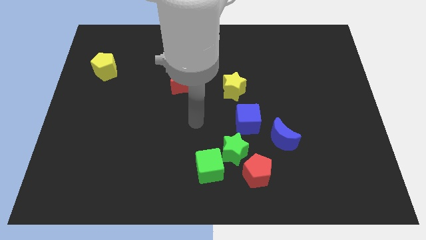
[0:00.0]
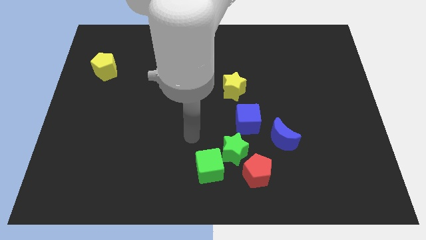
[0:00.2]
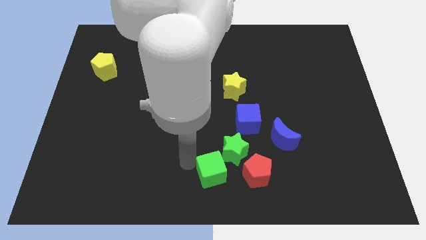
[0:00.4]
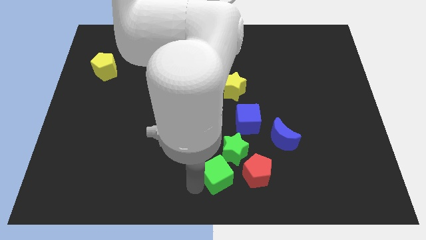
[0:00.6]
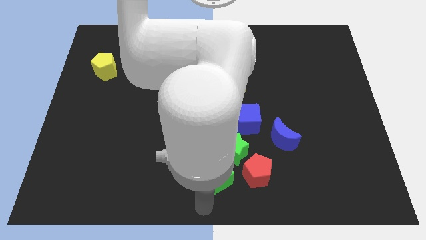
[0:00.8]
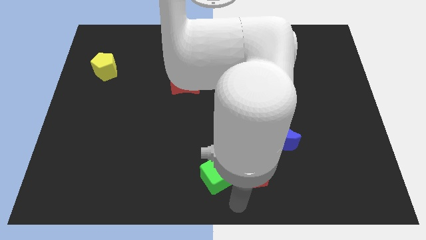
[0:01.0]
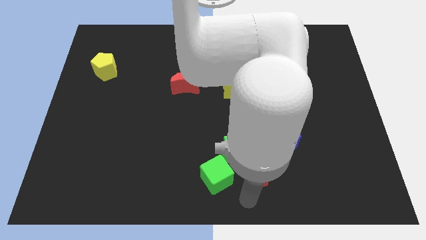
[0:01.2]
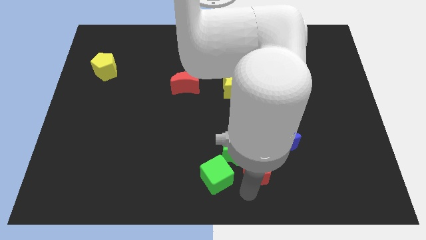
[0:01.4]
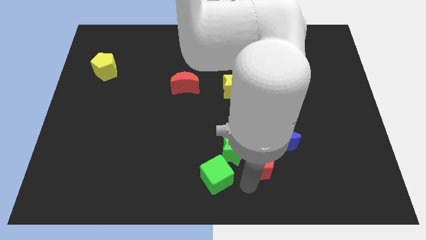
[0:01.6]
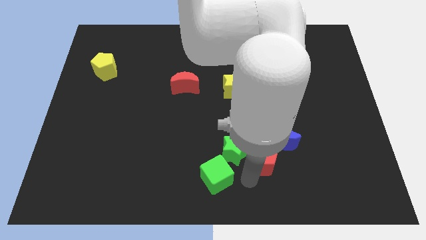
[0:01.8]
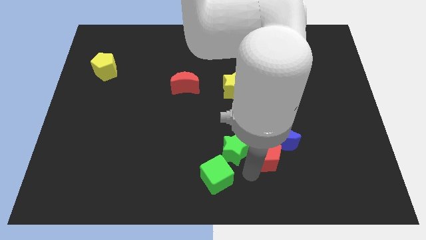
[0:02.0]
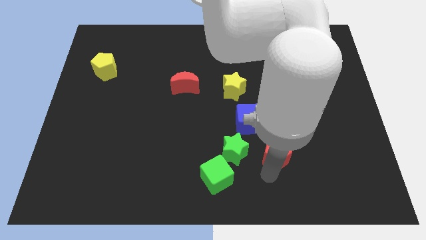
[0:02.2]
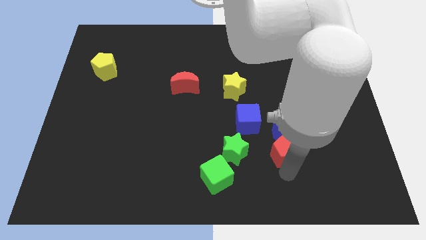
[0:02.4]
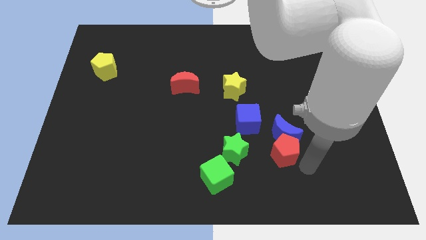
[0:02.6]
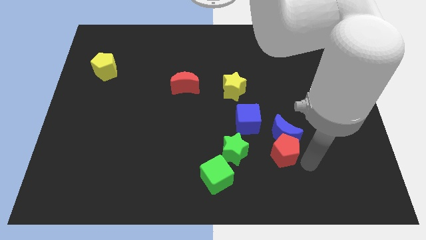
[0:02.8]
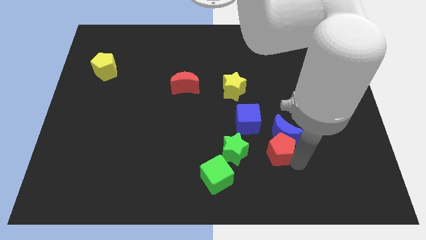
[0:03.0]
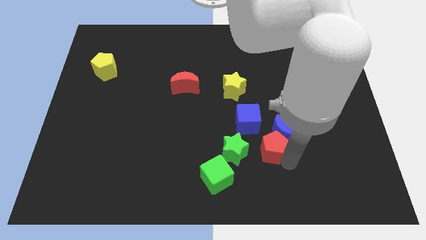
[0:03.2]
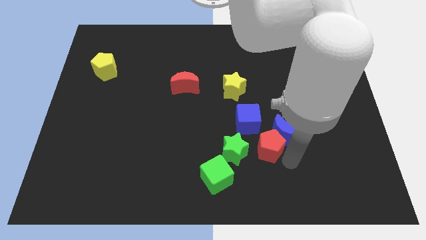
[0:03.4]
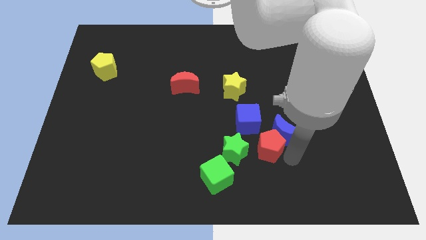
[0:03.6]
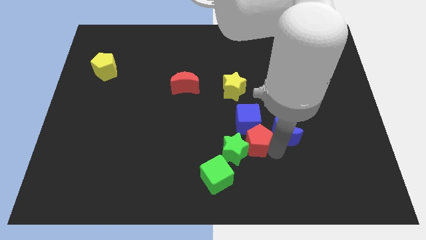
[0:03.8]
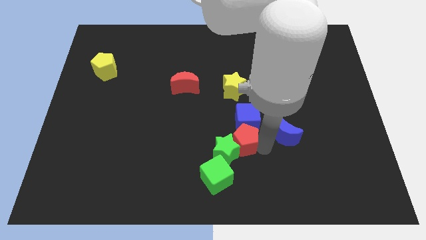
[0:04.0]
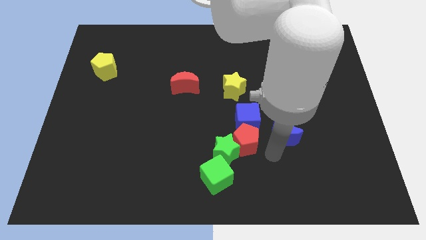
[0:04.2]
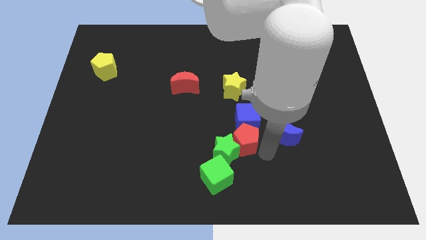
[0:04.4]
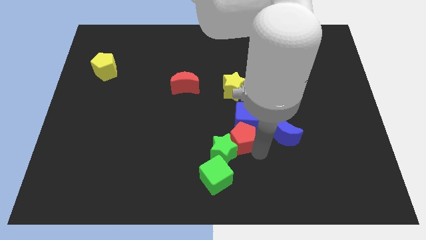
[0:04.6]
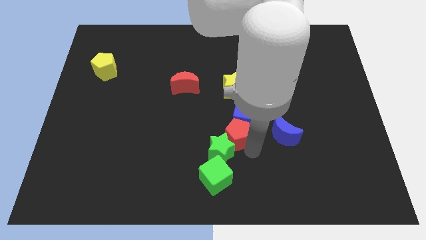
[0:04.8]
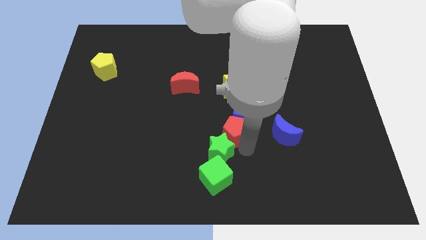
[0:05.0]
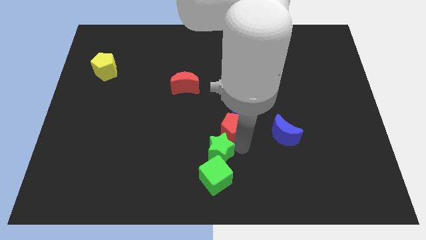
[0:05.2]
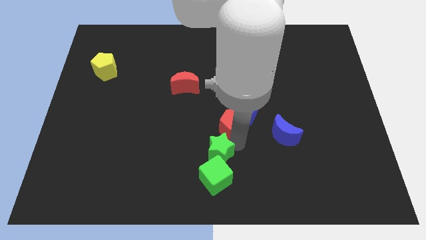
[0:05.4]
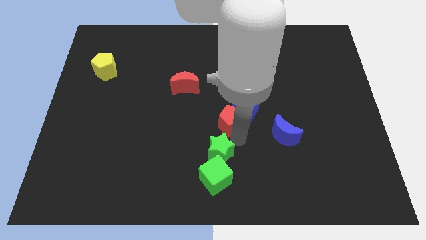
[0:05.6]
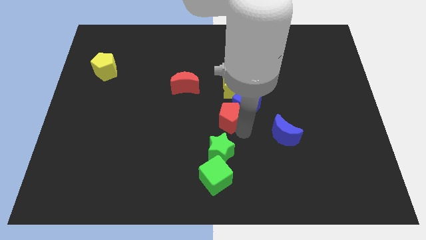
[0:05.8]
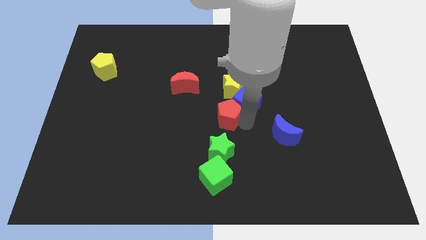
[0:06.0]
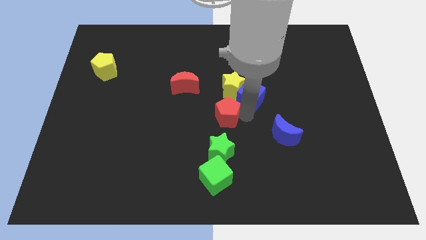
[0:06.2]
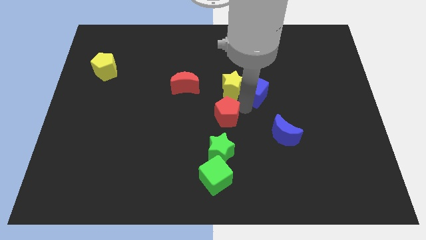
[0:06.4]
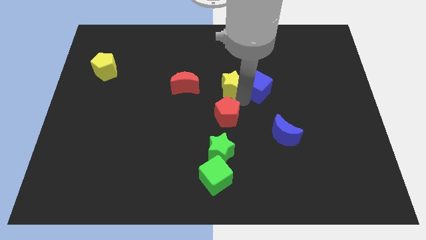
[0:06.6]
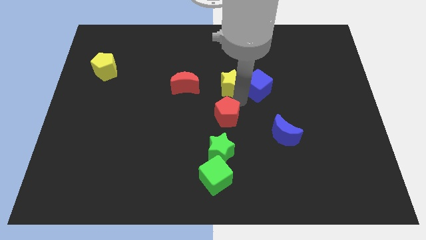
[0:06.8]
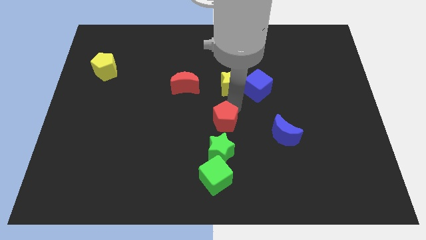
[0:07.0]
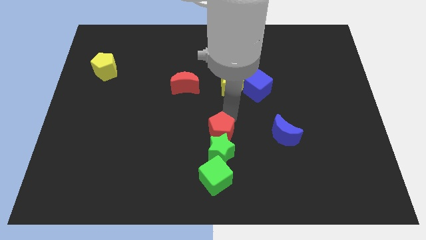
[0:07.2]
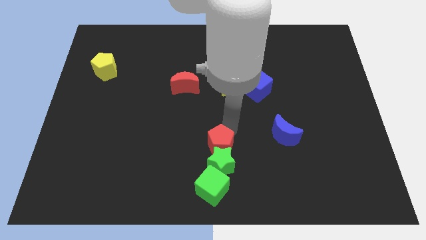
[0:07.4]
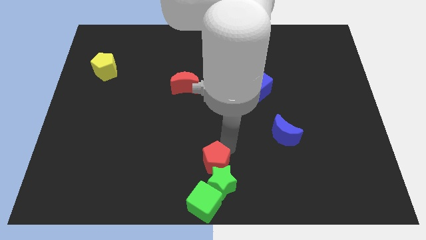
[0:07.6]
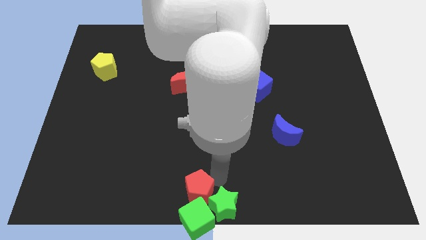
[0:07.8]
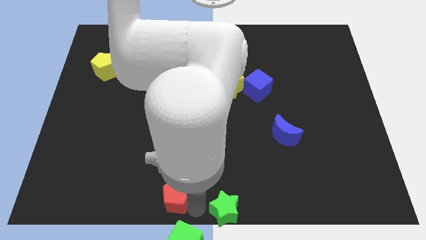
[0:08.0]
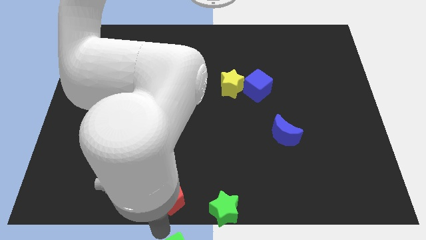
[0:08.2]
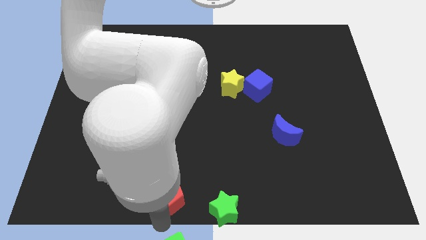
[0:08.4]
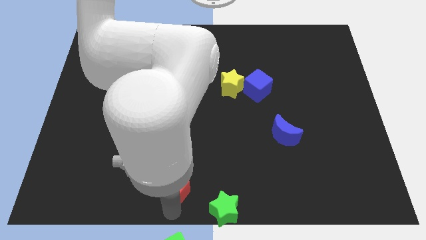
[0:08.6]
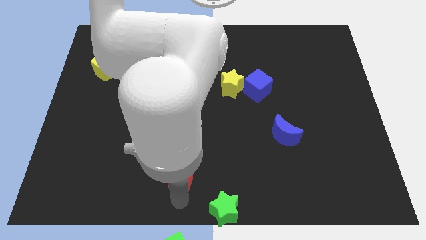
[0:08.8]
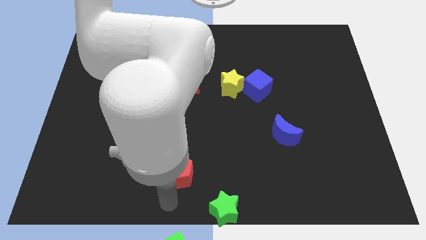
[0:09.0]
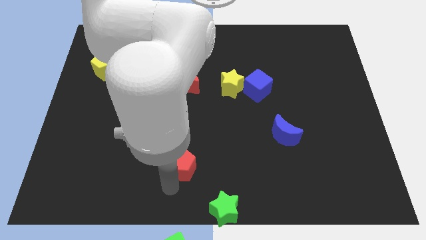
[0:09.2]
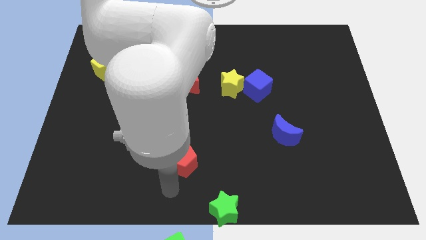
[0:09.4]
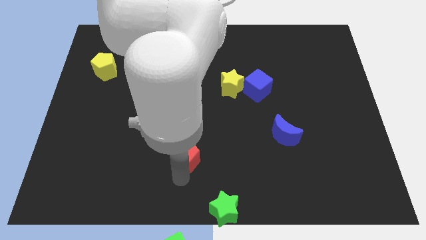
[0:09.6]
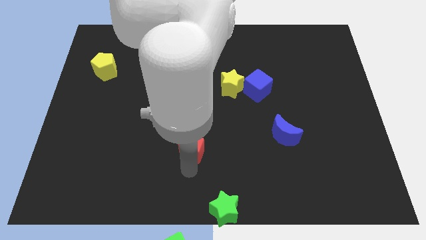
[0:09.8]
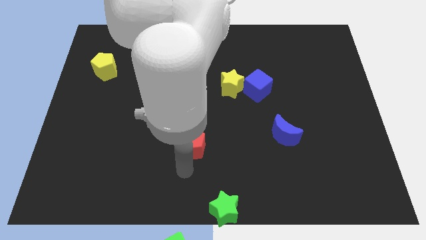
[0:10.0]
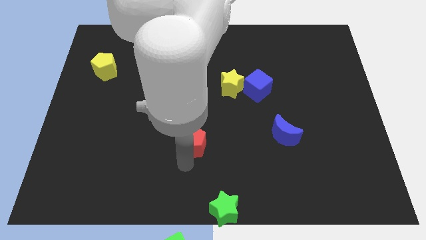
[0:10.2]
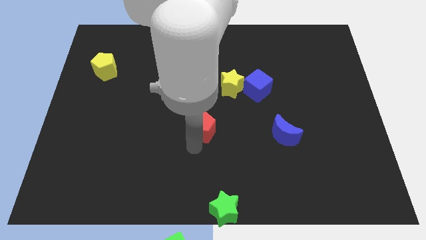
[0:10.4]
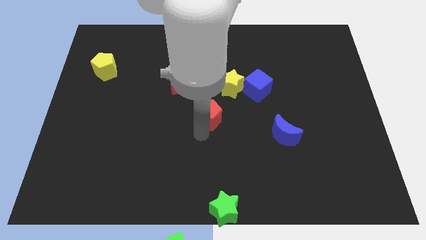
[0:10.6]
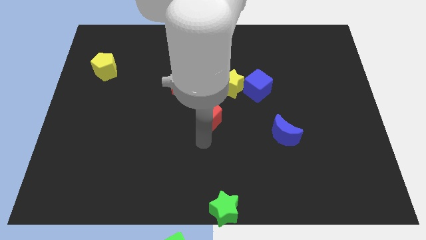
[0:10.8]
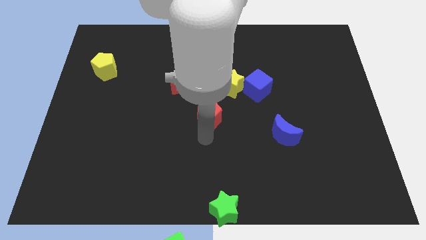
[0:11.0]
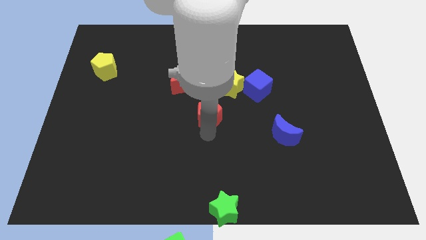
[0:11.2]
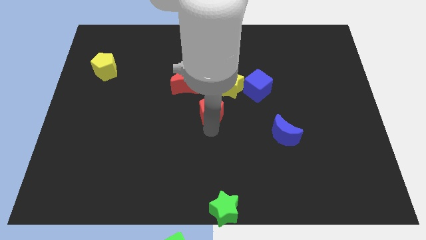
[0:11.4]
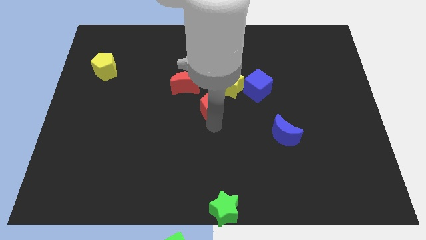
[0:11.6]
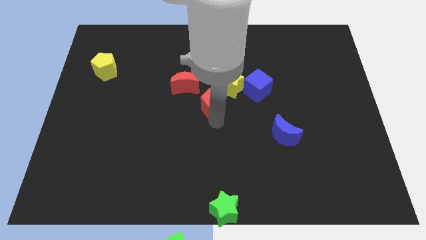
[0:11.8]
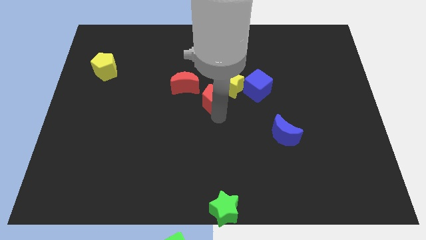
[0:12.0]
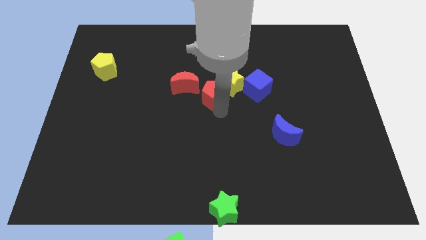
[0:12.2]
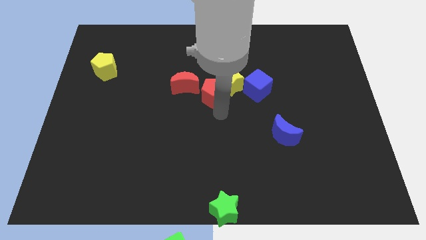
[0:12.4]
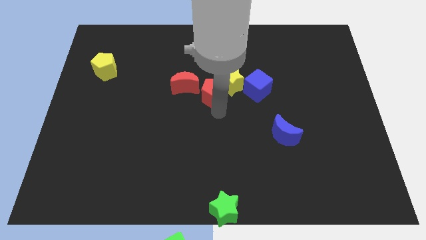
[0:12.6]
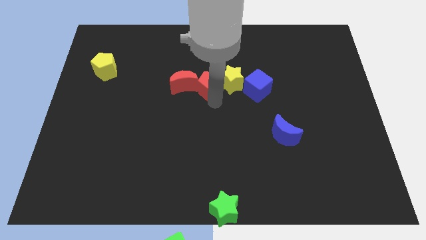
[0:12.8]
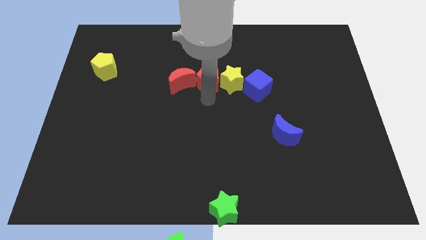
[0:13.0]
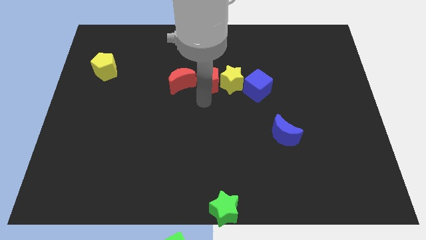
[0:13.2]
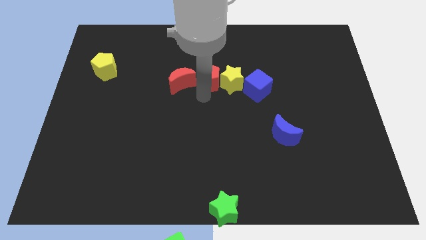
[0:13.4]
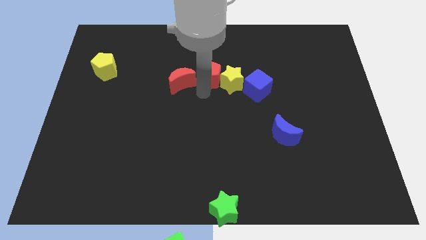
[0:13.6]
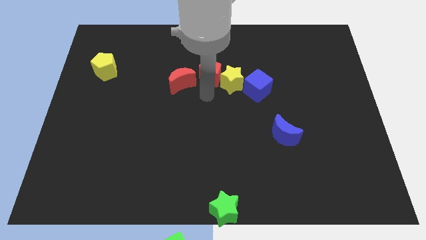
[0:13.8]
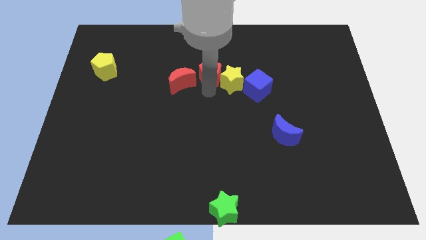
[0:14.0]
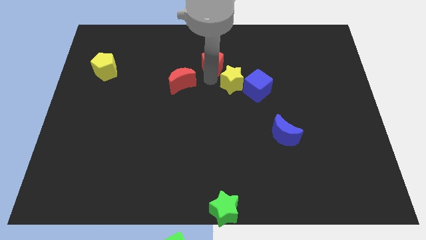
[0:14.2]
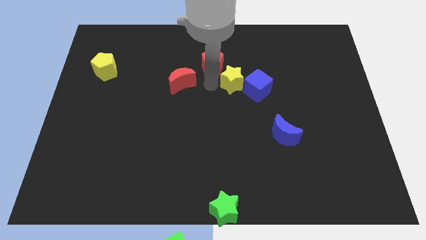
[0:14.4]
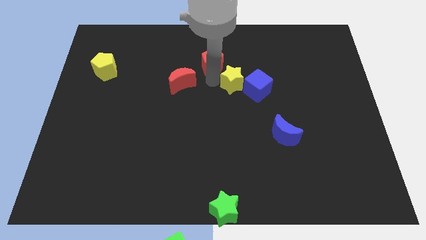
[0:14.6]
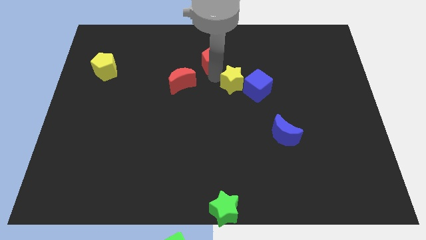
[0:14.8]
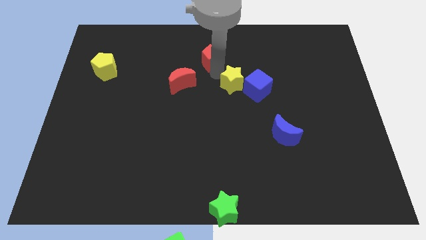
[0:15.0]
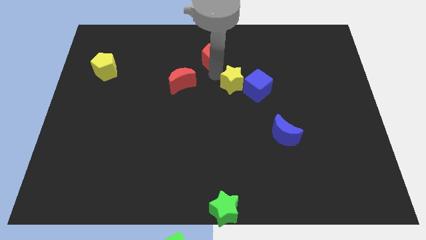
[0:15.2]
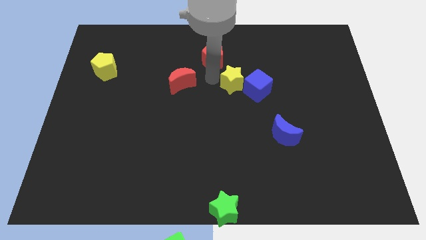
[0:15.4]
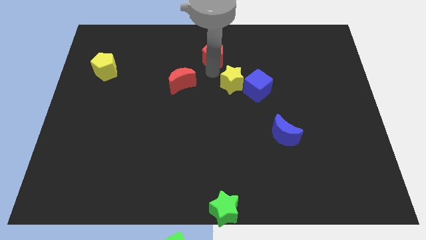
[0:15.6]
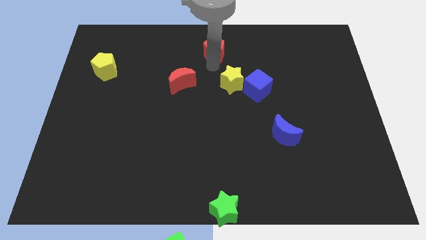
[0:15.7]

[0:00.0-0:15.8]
put the red pentagon to the top side
